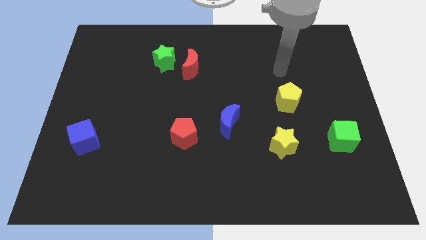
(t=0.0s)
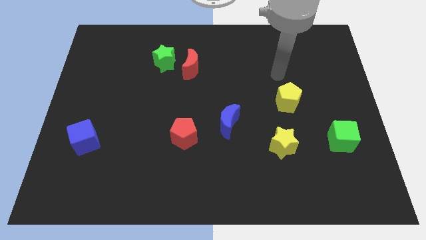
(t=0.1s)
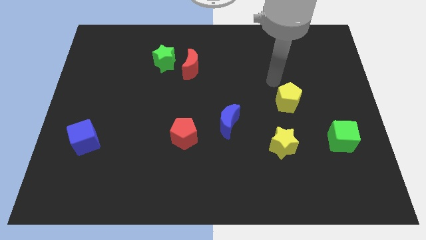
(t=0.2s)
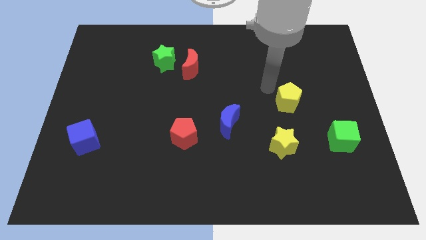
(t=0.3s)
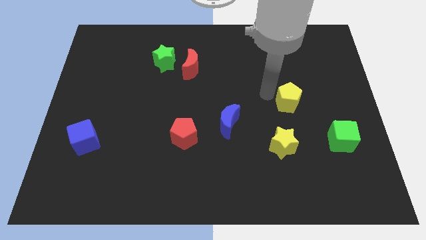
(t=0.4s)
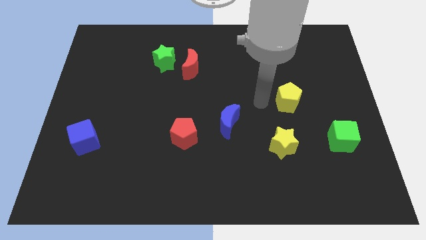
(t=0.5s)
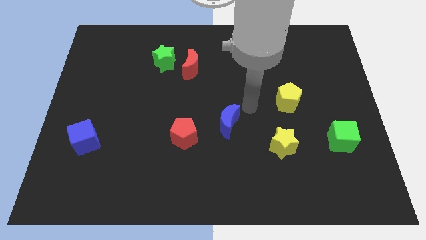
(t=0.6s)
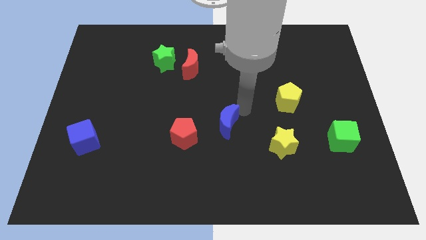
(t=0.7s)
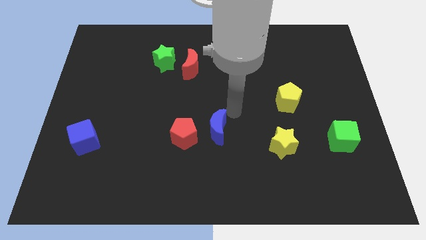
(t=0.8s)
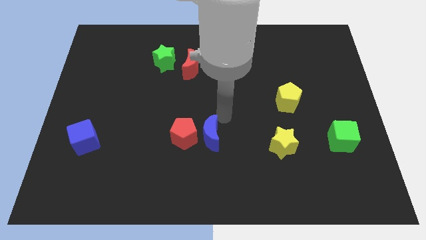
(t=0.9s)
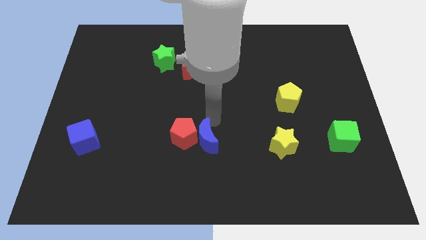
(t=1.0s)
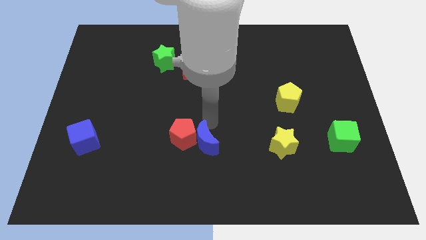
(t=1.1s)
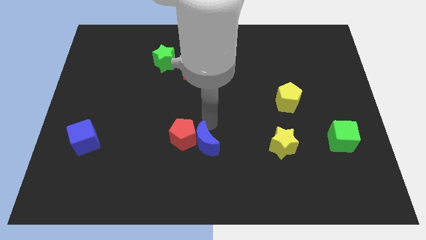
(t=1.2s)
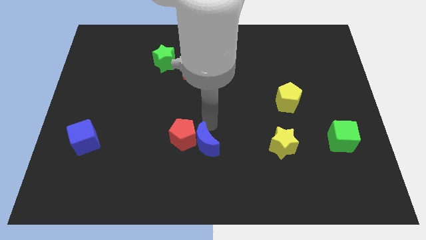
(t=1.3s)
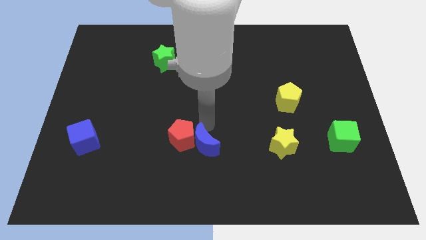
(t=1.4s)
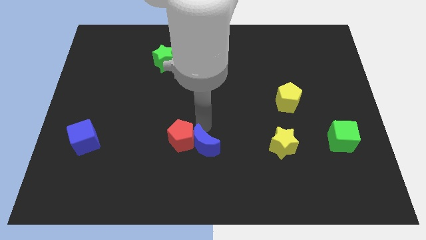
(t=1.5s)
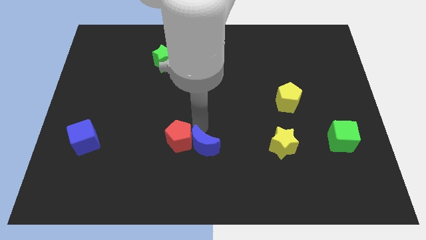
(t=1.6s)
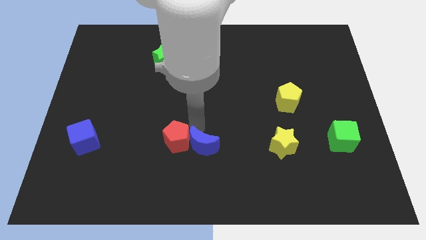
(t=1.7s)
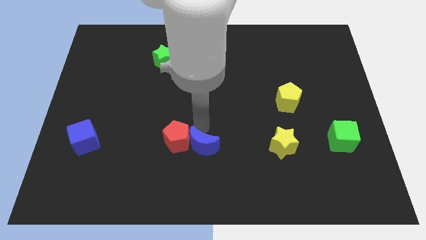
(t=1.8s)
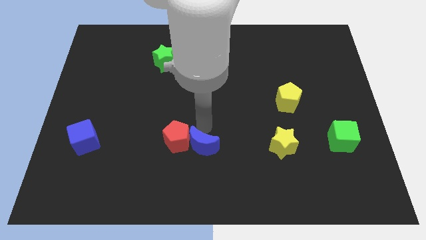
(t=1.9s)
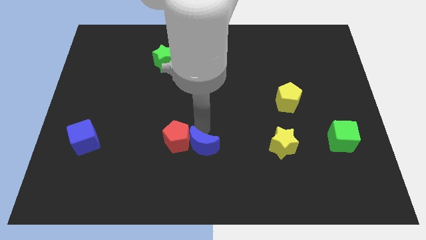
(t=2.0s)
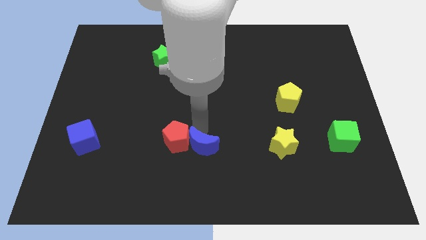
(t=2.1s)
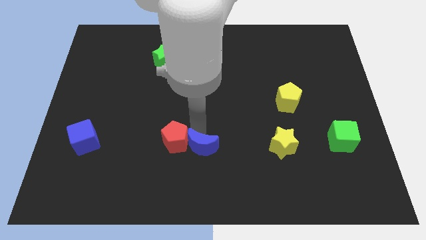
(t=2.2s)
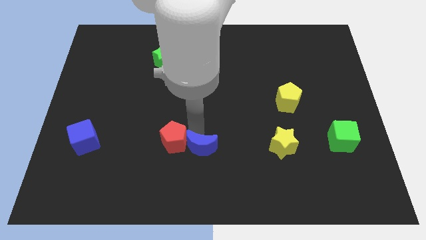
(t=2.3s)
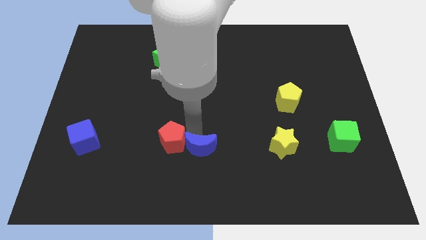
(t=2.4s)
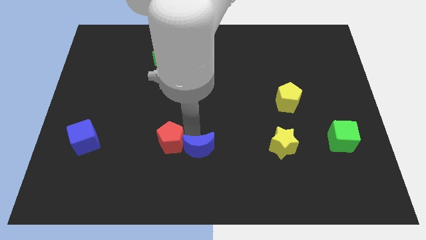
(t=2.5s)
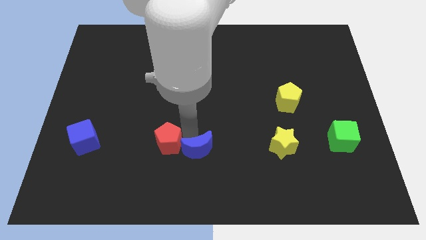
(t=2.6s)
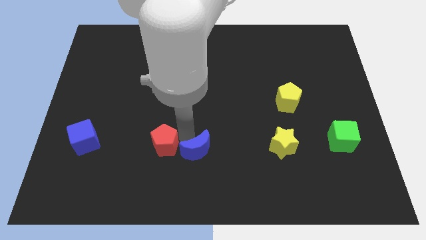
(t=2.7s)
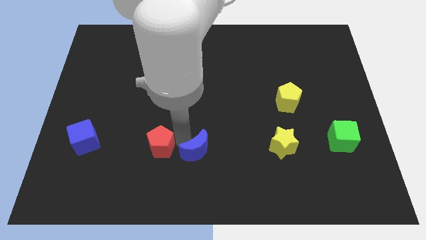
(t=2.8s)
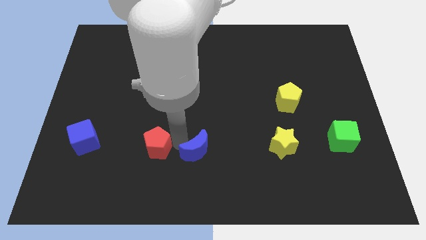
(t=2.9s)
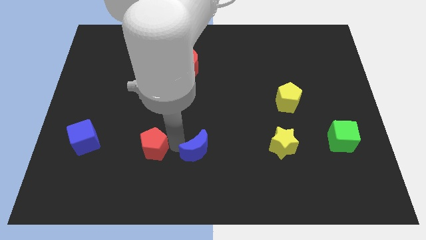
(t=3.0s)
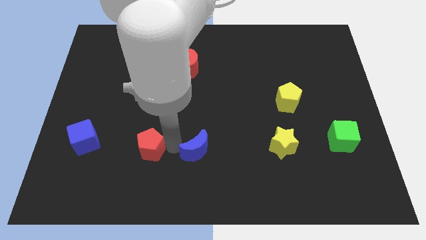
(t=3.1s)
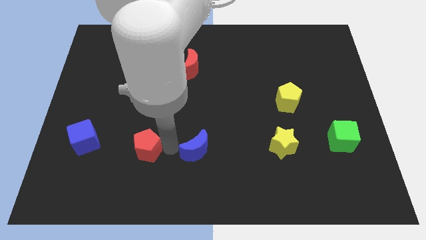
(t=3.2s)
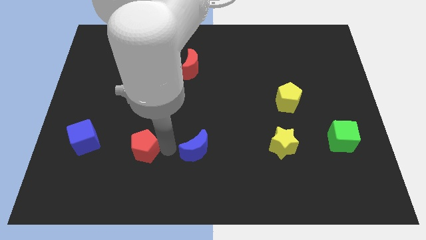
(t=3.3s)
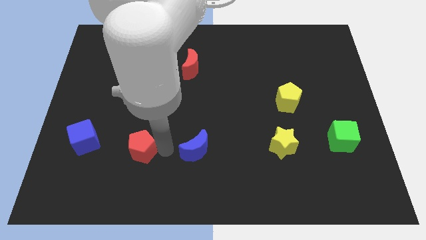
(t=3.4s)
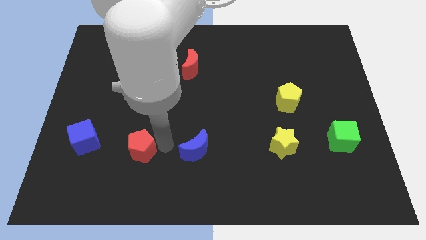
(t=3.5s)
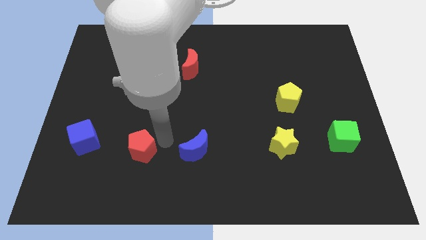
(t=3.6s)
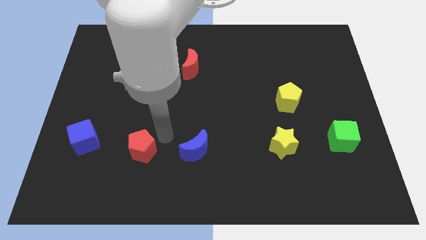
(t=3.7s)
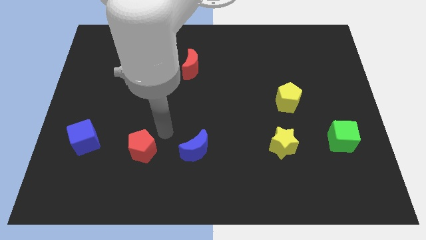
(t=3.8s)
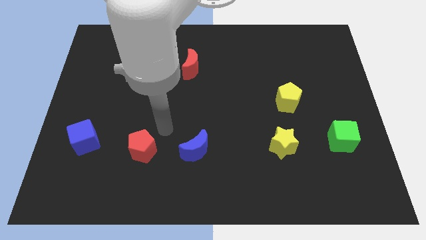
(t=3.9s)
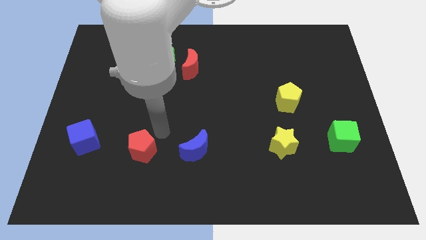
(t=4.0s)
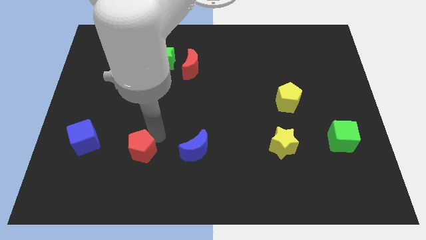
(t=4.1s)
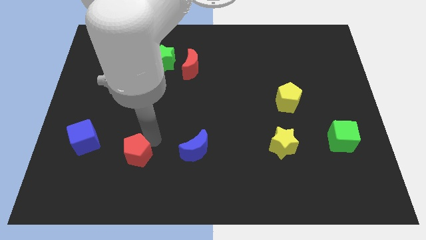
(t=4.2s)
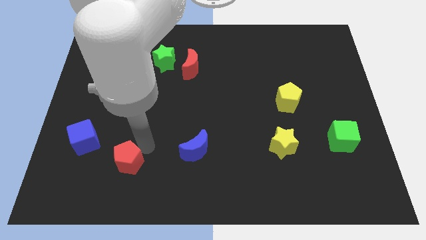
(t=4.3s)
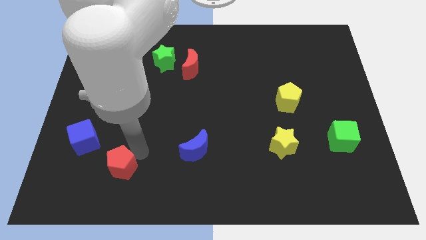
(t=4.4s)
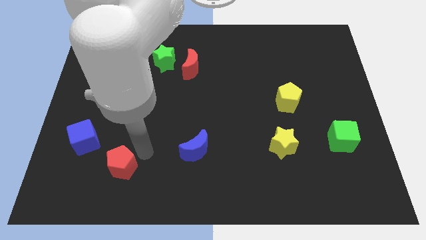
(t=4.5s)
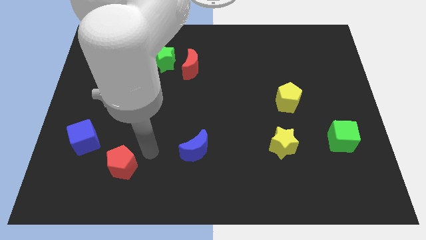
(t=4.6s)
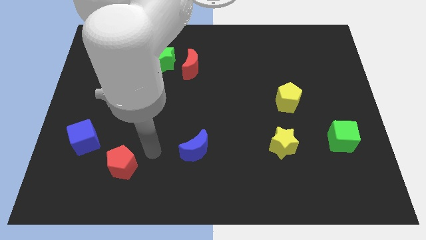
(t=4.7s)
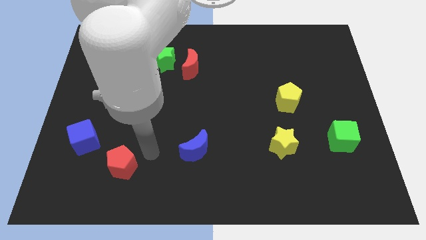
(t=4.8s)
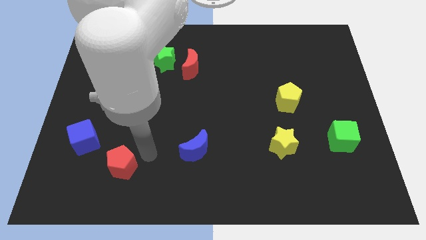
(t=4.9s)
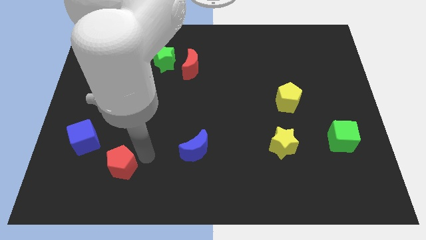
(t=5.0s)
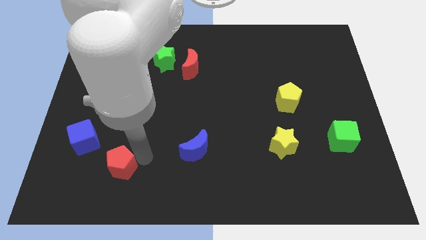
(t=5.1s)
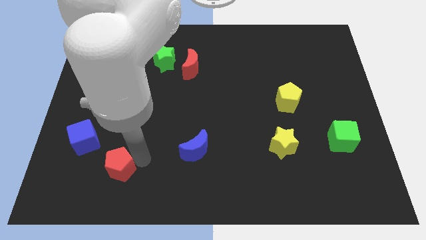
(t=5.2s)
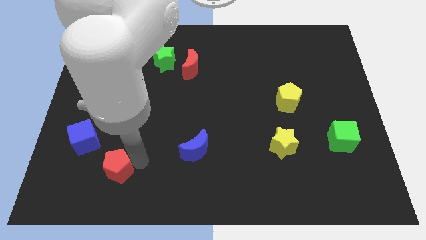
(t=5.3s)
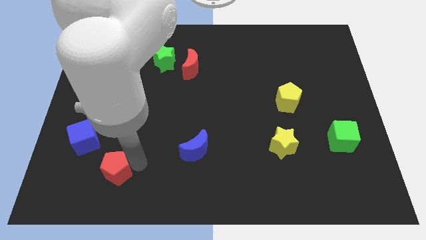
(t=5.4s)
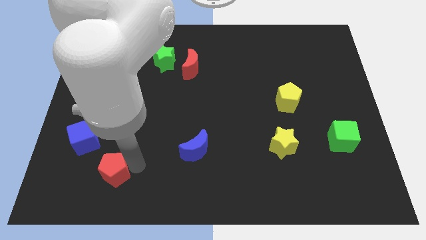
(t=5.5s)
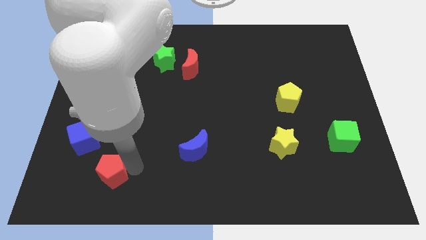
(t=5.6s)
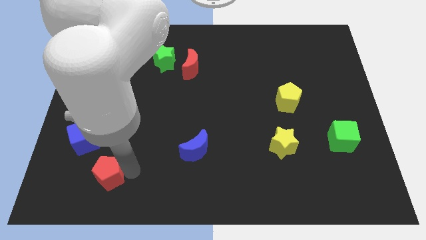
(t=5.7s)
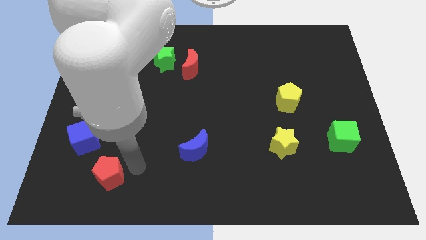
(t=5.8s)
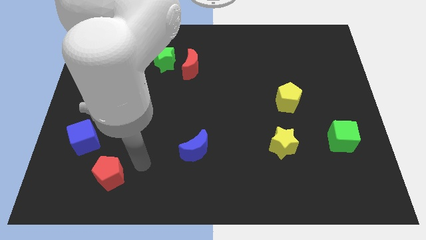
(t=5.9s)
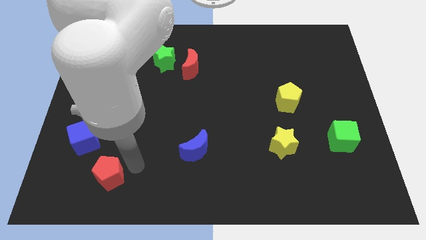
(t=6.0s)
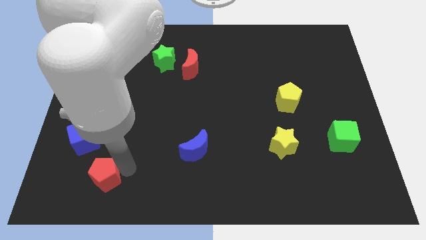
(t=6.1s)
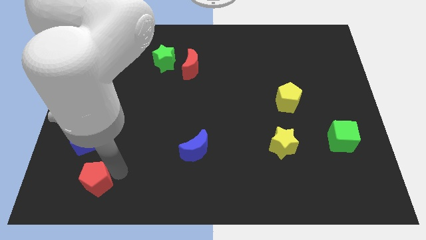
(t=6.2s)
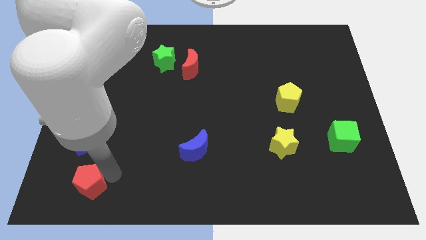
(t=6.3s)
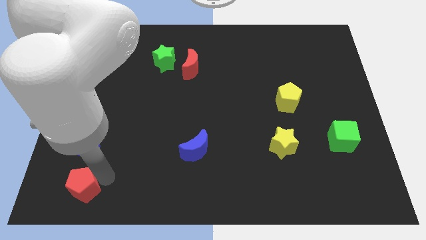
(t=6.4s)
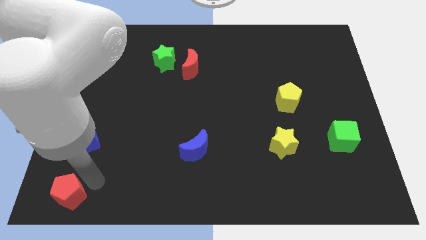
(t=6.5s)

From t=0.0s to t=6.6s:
push the red pentagon to the bottom left corner
